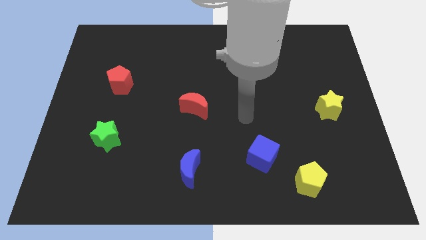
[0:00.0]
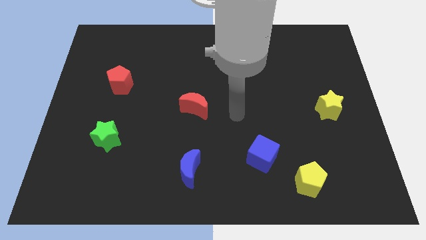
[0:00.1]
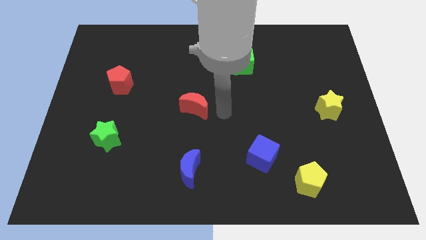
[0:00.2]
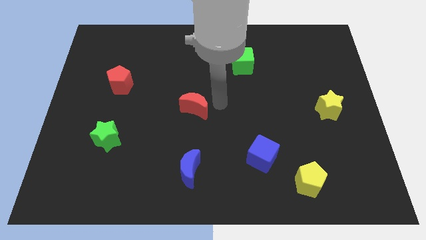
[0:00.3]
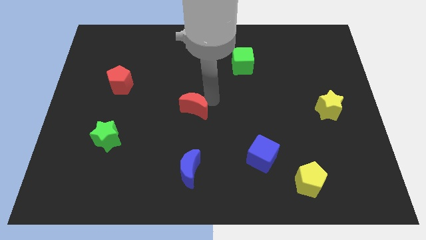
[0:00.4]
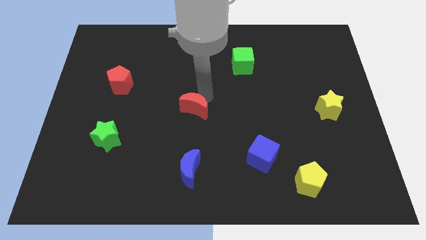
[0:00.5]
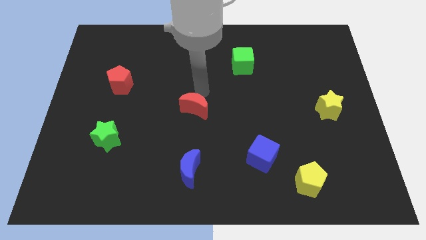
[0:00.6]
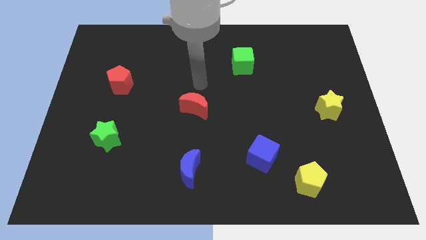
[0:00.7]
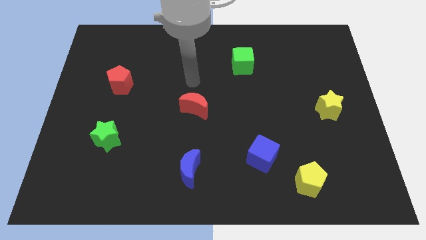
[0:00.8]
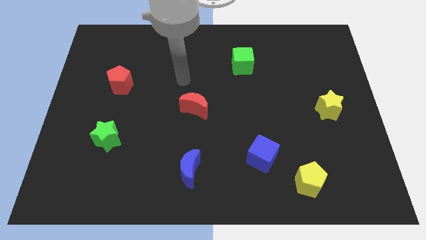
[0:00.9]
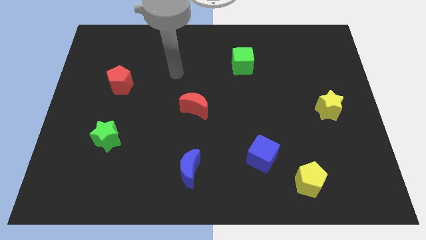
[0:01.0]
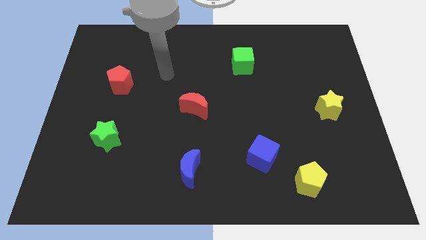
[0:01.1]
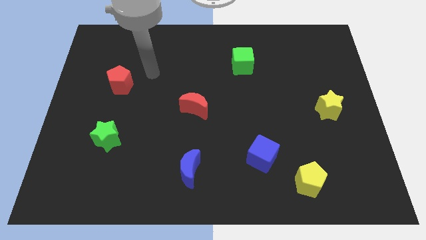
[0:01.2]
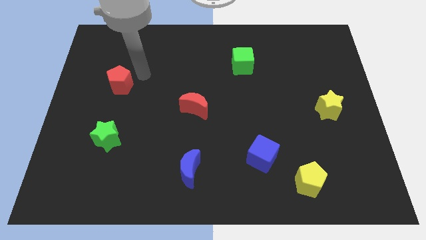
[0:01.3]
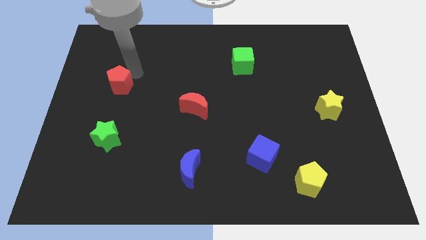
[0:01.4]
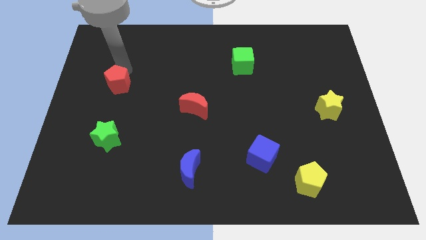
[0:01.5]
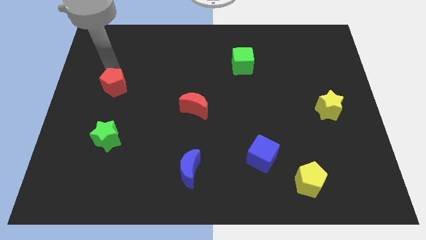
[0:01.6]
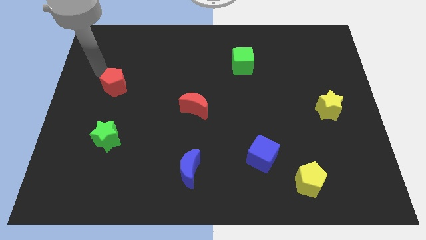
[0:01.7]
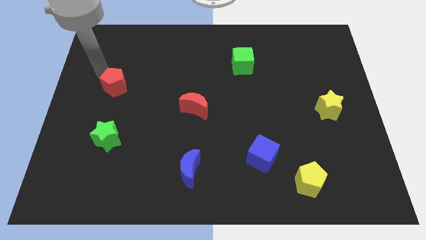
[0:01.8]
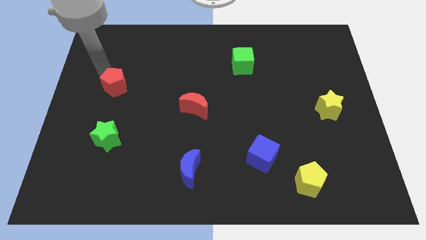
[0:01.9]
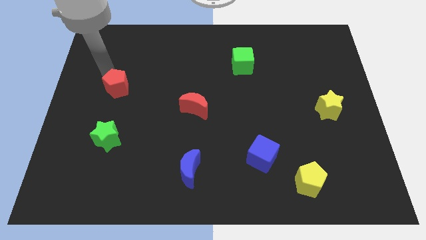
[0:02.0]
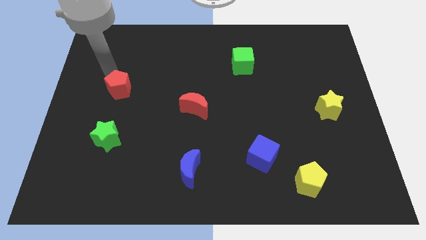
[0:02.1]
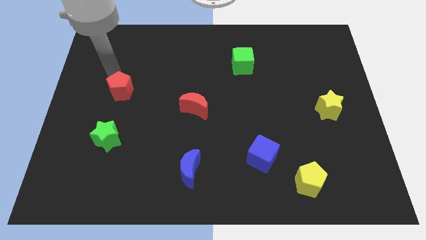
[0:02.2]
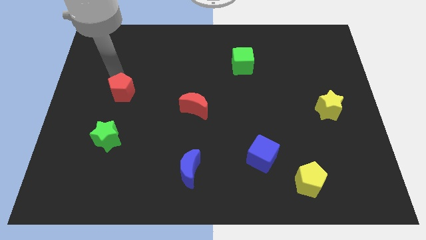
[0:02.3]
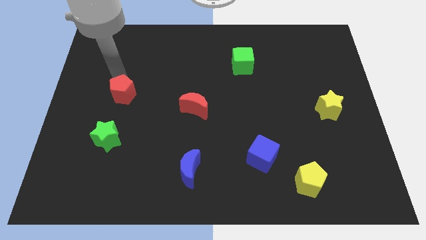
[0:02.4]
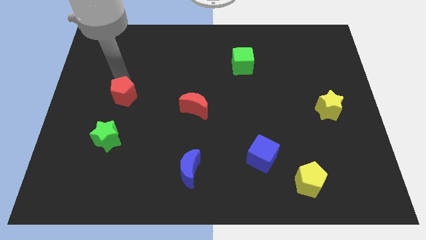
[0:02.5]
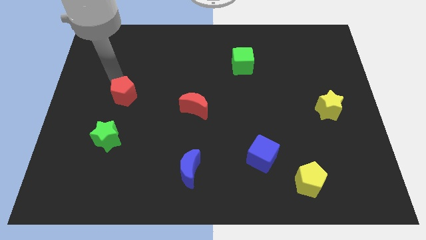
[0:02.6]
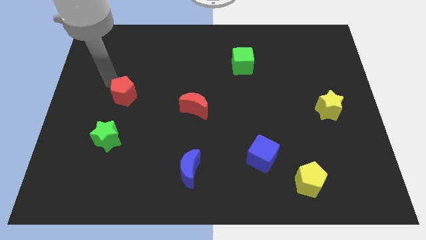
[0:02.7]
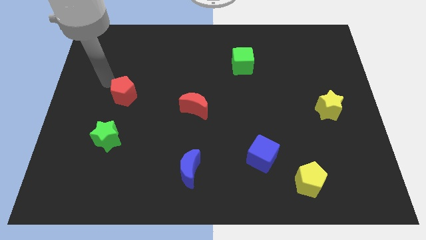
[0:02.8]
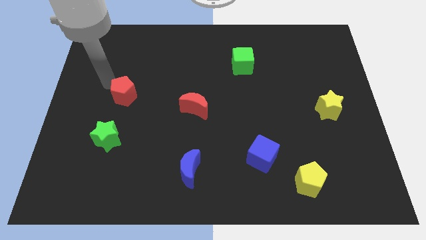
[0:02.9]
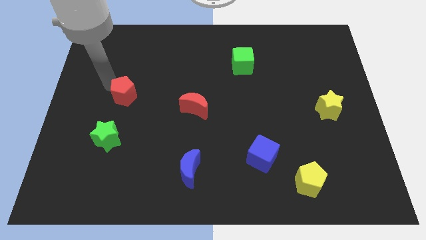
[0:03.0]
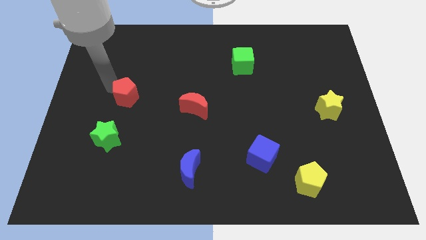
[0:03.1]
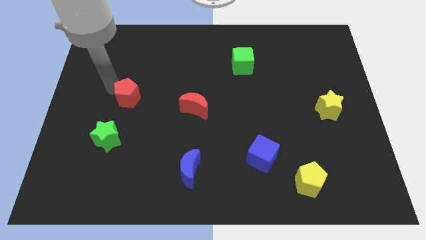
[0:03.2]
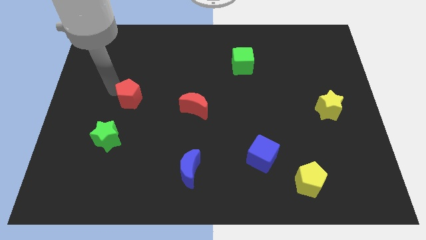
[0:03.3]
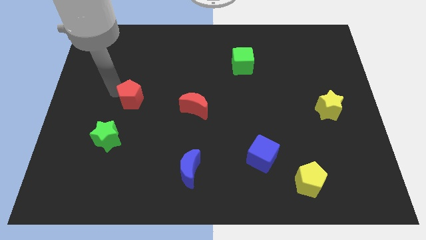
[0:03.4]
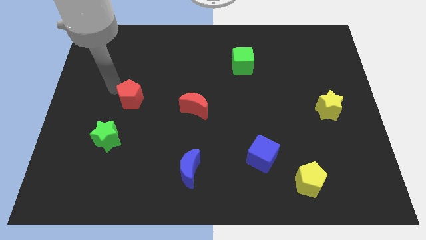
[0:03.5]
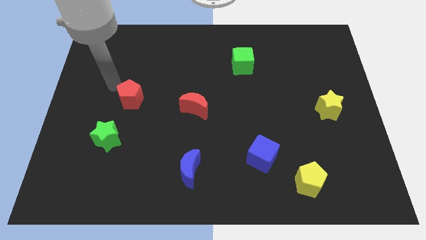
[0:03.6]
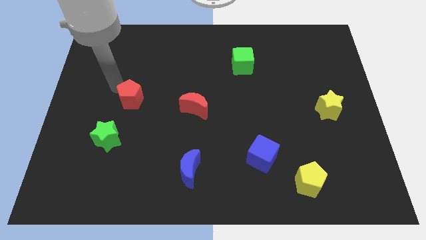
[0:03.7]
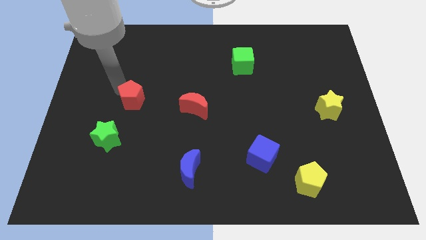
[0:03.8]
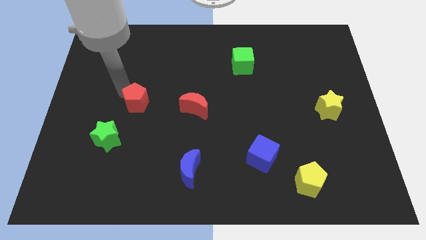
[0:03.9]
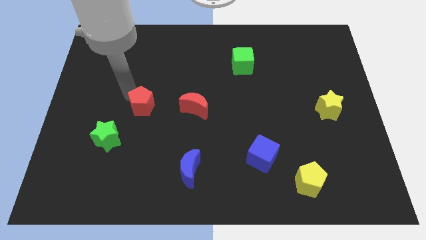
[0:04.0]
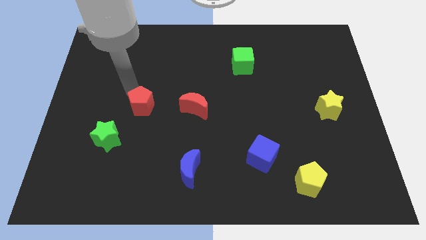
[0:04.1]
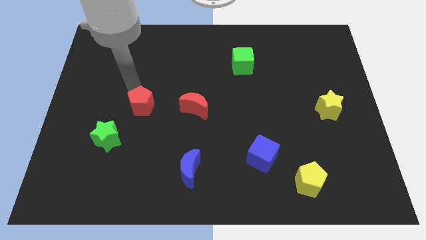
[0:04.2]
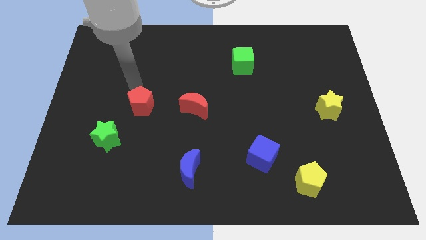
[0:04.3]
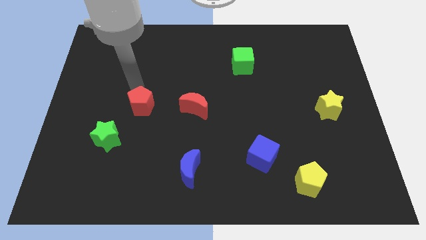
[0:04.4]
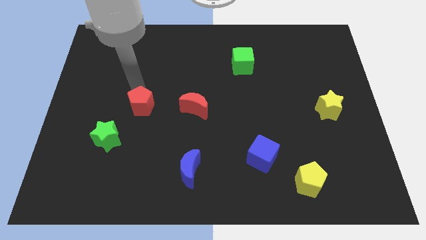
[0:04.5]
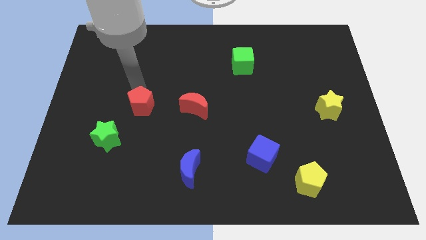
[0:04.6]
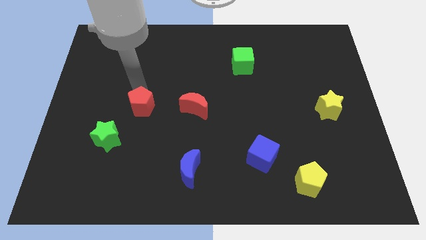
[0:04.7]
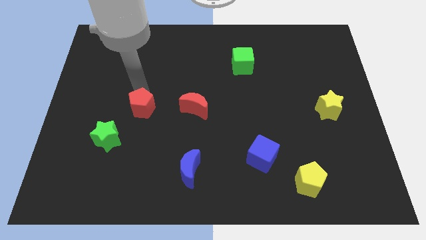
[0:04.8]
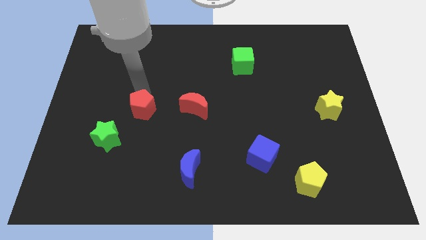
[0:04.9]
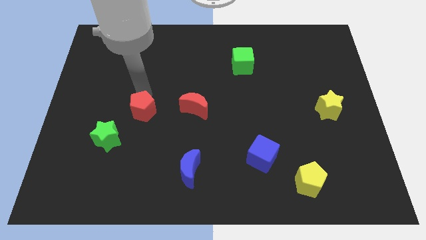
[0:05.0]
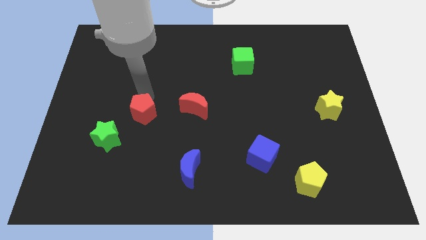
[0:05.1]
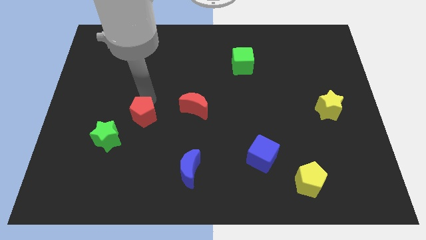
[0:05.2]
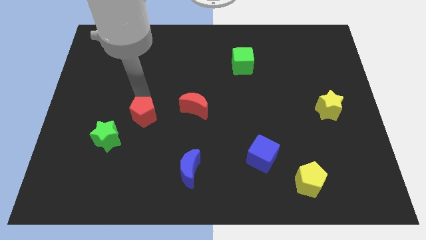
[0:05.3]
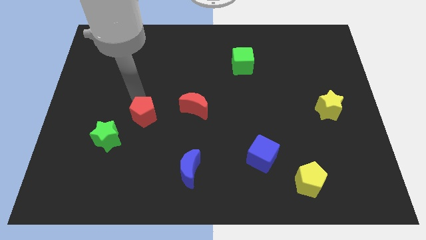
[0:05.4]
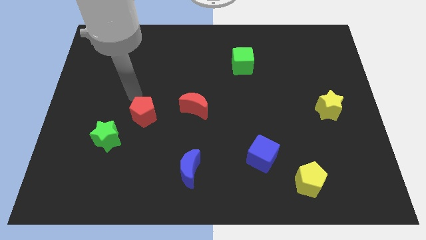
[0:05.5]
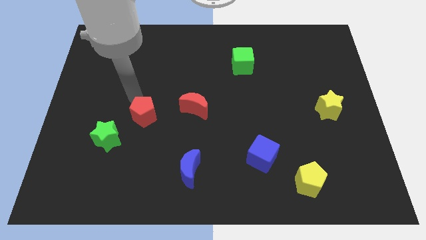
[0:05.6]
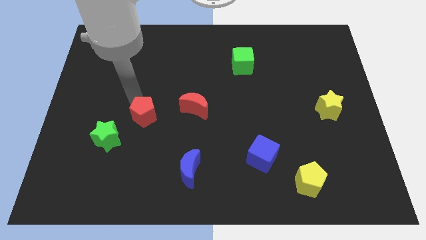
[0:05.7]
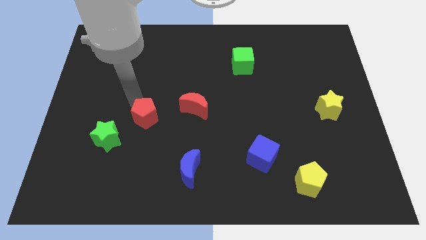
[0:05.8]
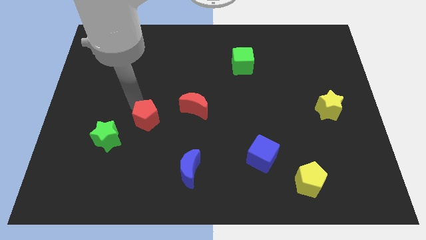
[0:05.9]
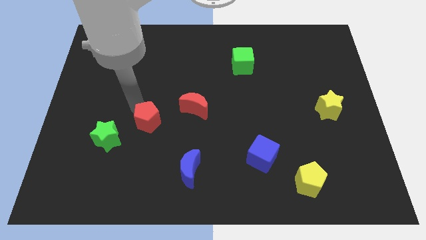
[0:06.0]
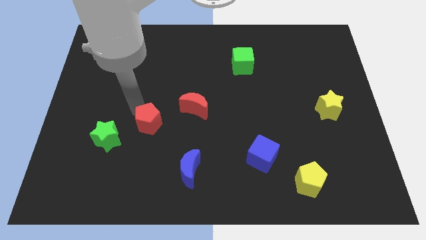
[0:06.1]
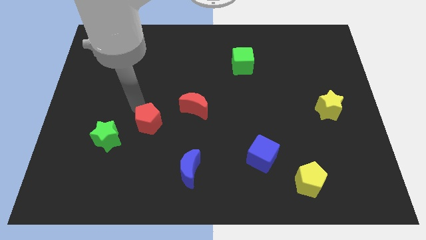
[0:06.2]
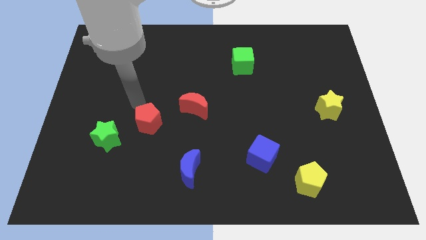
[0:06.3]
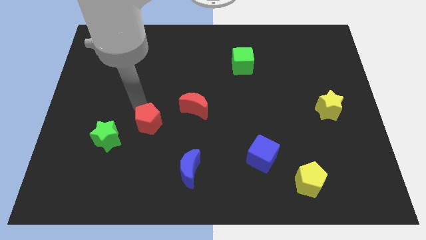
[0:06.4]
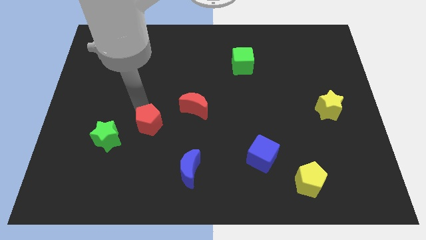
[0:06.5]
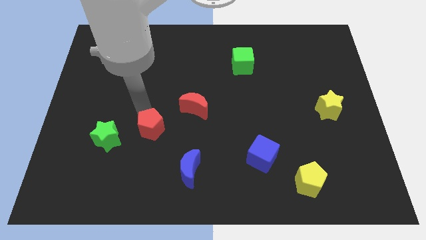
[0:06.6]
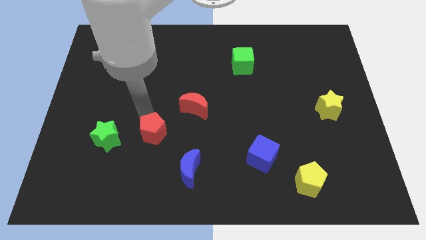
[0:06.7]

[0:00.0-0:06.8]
move the red pentagon to the top left of the blue moon
